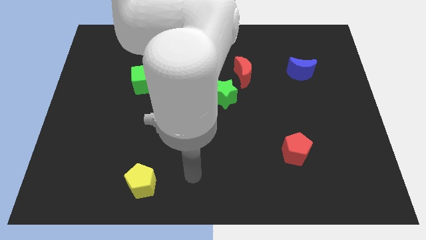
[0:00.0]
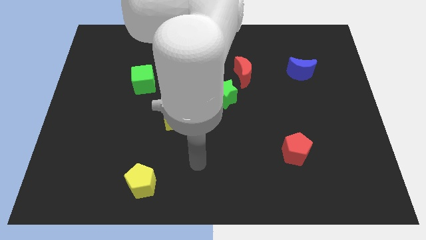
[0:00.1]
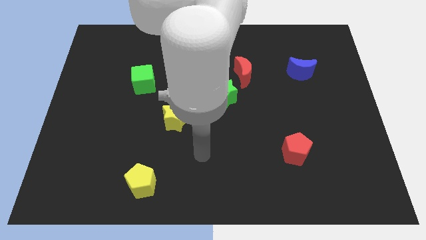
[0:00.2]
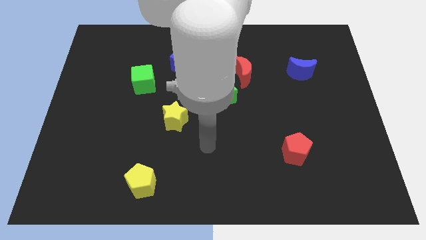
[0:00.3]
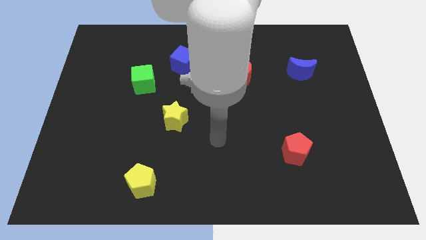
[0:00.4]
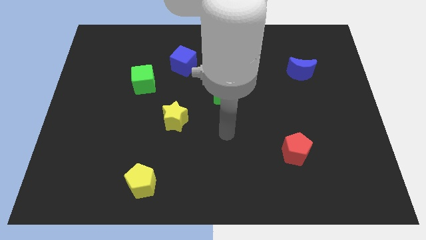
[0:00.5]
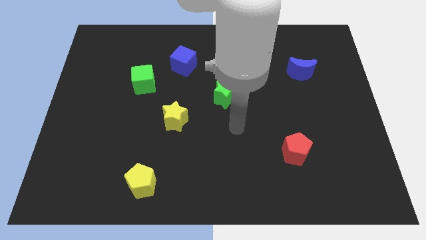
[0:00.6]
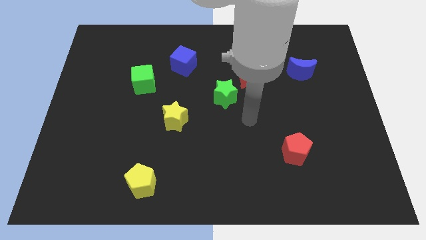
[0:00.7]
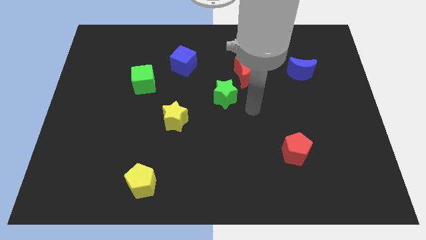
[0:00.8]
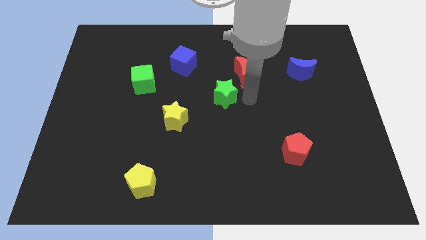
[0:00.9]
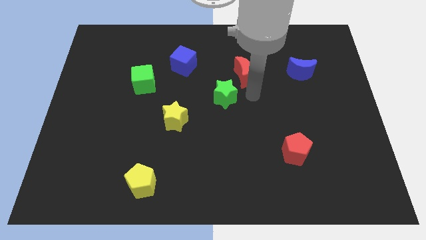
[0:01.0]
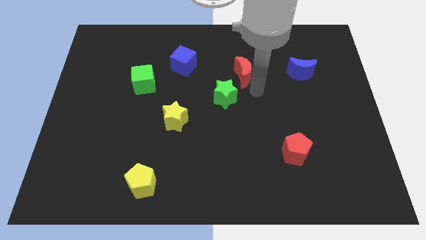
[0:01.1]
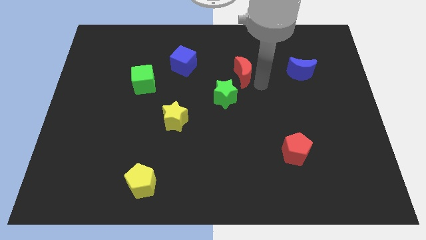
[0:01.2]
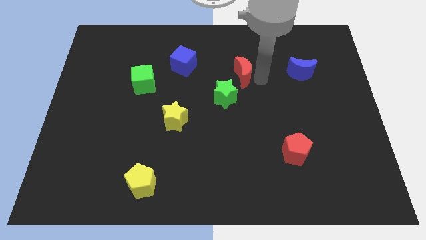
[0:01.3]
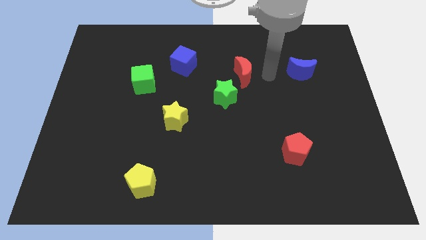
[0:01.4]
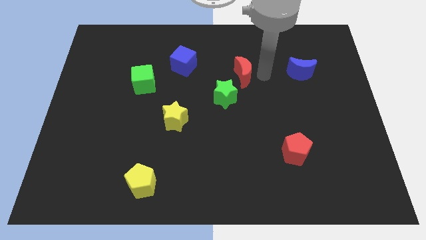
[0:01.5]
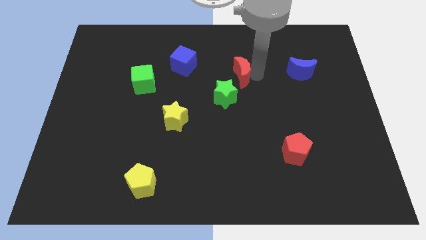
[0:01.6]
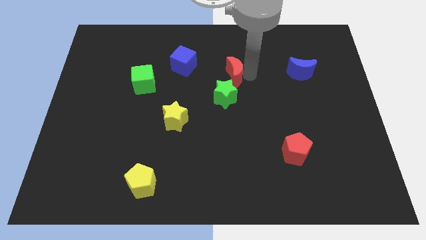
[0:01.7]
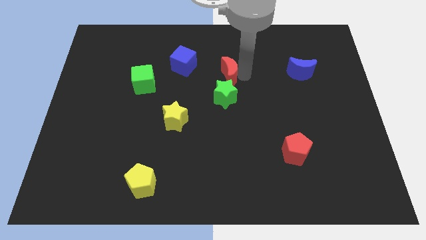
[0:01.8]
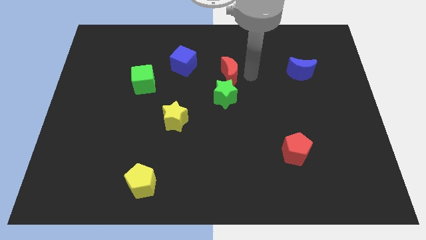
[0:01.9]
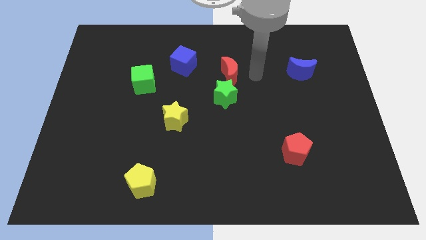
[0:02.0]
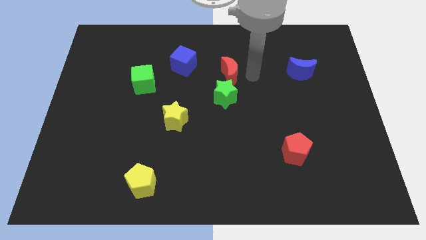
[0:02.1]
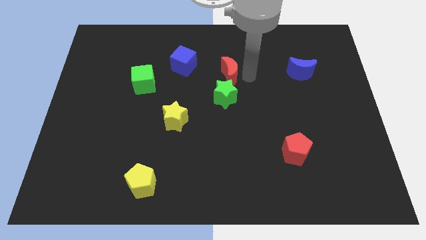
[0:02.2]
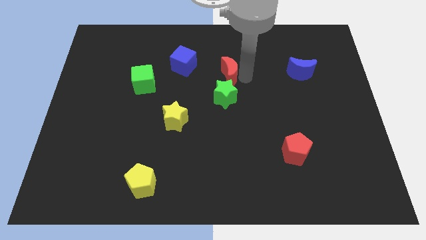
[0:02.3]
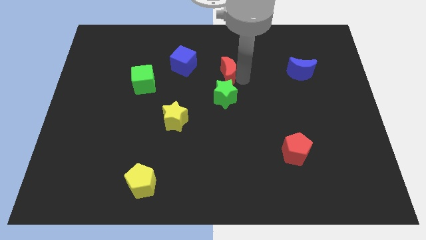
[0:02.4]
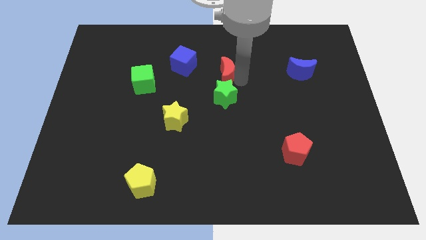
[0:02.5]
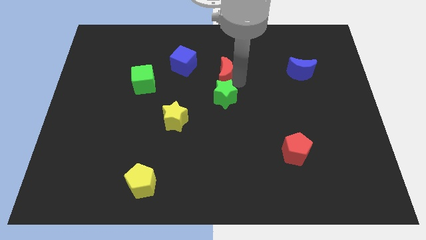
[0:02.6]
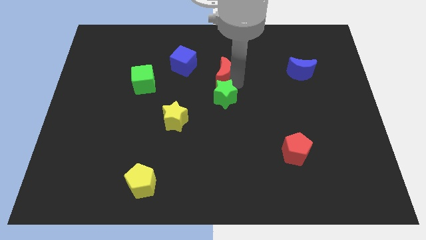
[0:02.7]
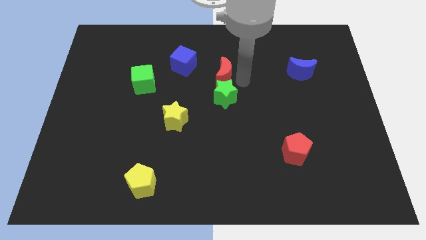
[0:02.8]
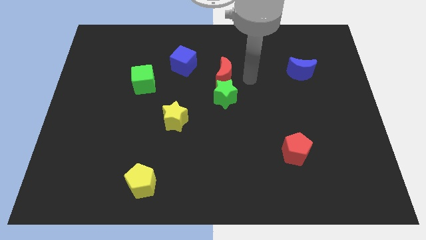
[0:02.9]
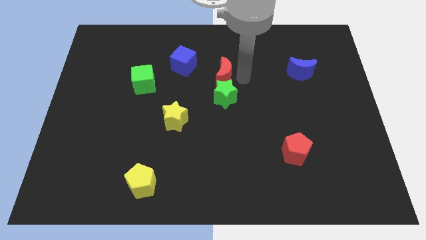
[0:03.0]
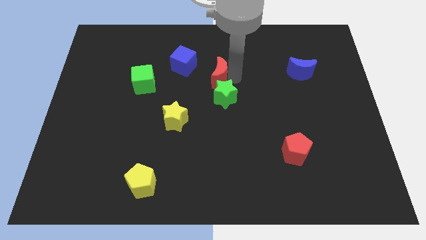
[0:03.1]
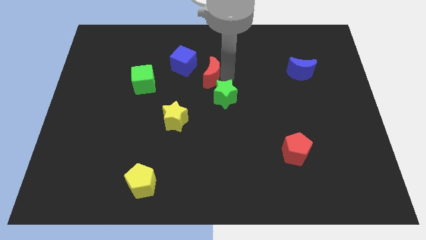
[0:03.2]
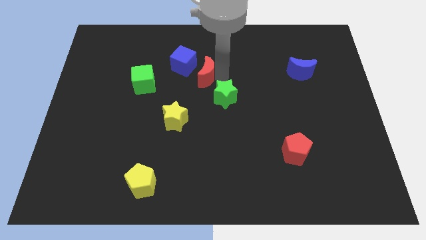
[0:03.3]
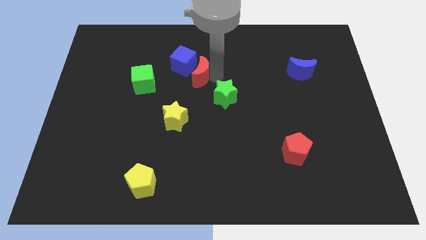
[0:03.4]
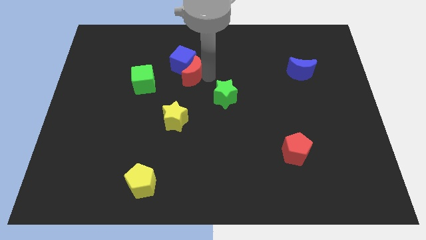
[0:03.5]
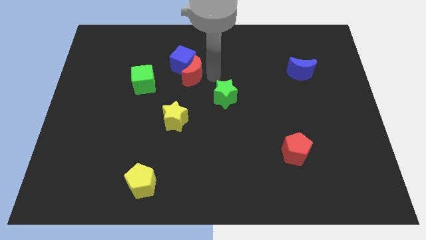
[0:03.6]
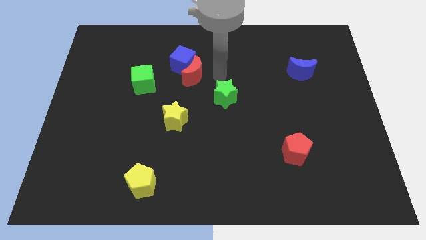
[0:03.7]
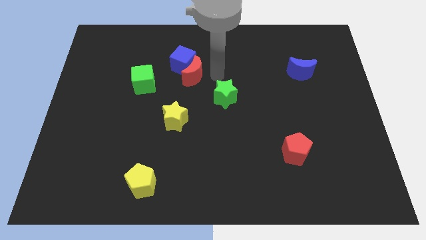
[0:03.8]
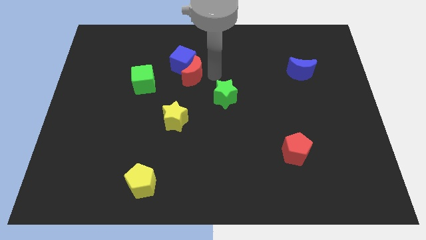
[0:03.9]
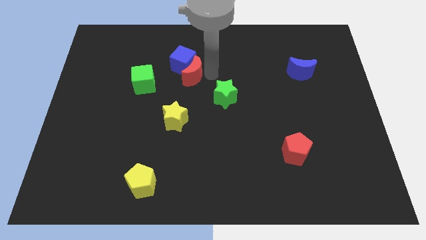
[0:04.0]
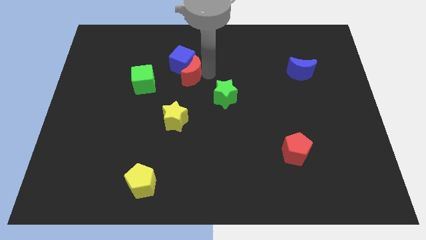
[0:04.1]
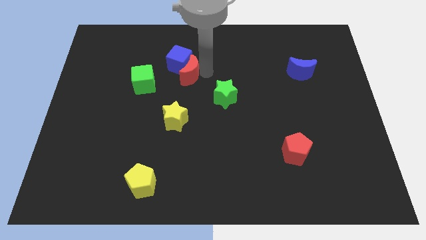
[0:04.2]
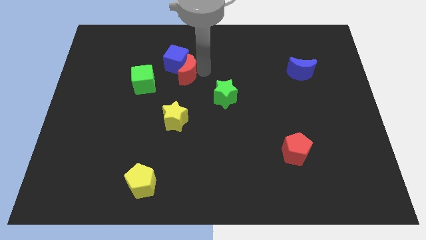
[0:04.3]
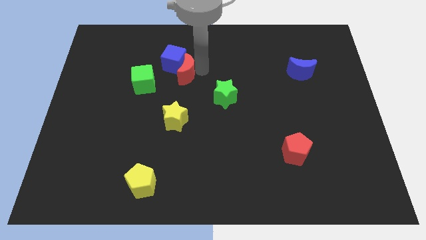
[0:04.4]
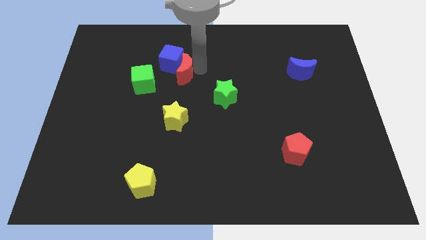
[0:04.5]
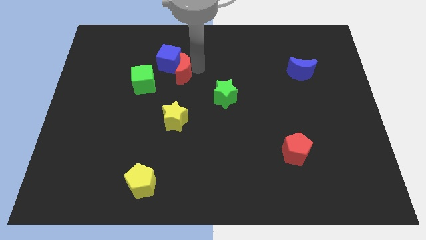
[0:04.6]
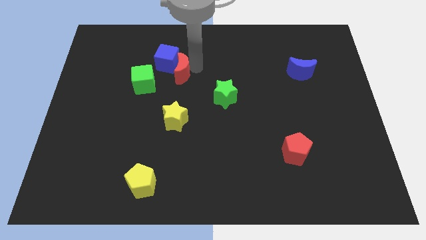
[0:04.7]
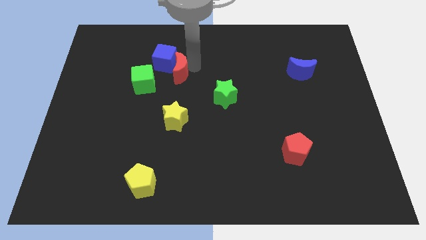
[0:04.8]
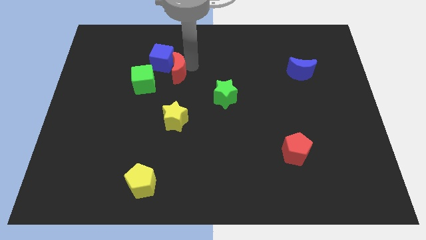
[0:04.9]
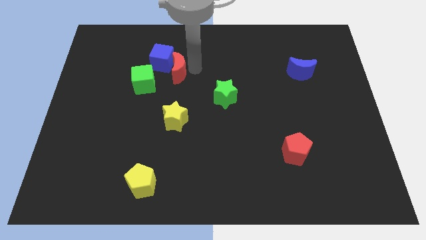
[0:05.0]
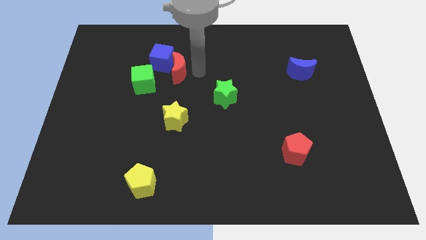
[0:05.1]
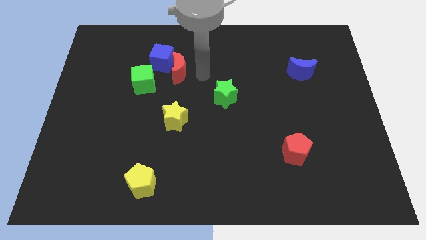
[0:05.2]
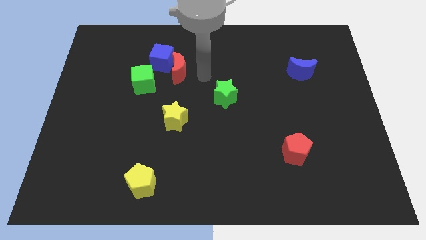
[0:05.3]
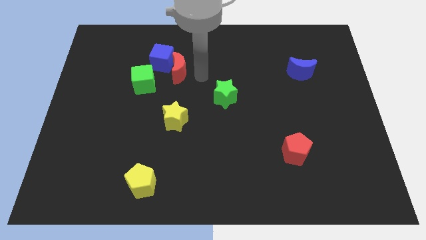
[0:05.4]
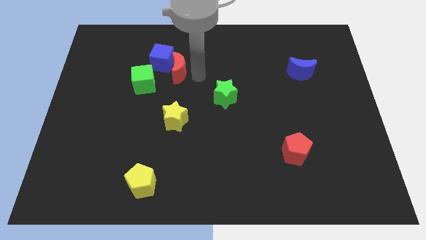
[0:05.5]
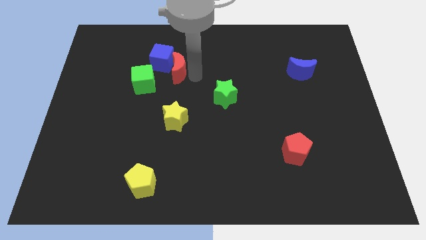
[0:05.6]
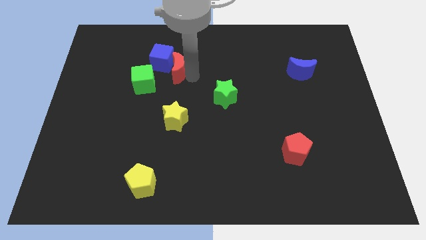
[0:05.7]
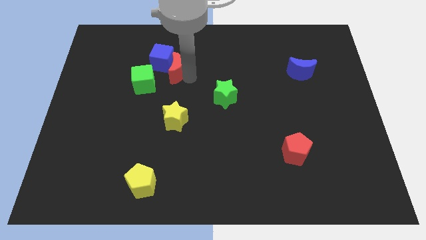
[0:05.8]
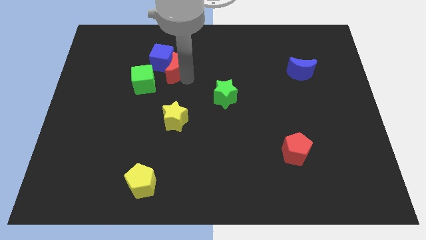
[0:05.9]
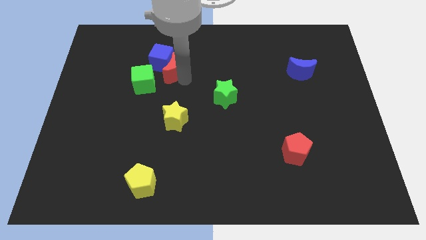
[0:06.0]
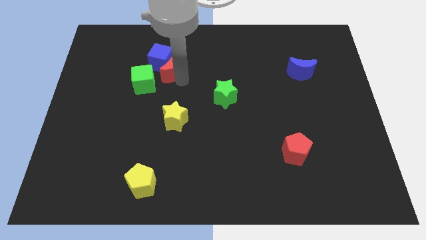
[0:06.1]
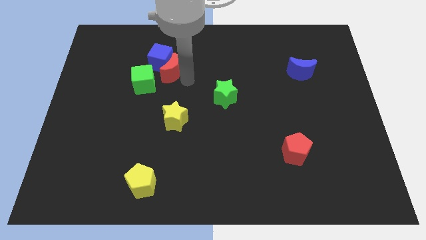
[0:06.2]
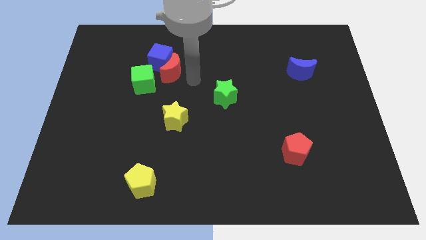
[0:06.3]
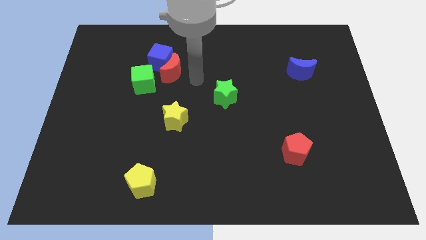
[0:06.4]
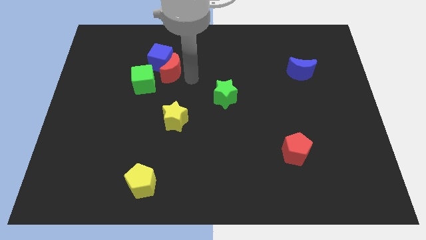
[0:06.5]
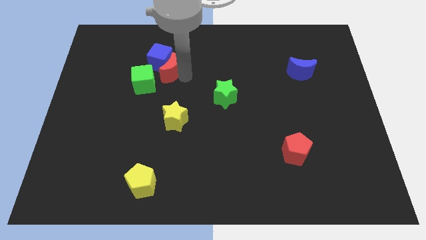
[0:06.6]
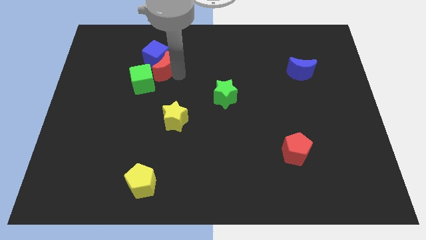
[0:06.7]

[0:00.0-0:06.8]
move the red moon to the left

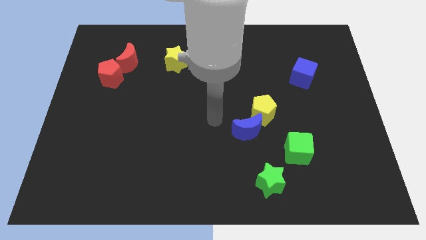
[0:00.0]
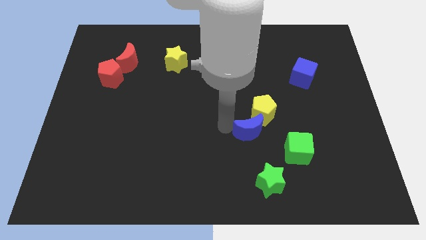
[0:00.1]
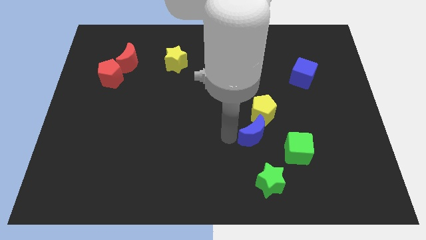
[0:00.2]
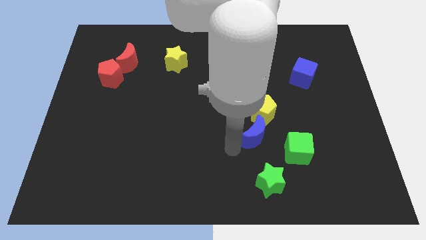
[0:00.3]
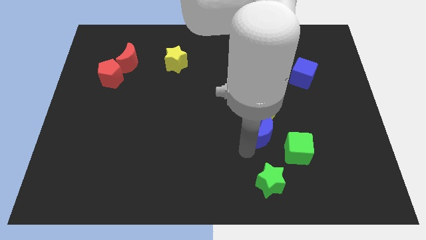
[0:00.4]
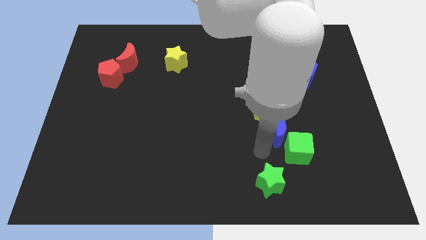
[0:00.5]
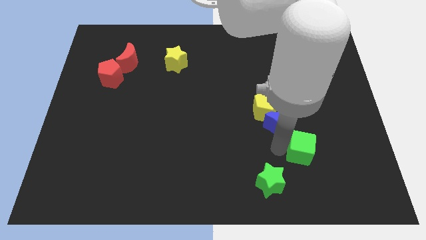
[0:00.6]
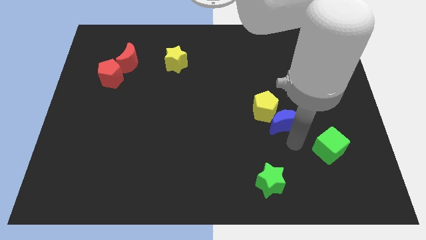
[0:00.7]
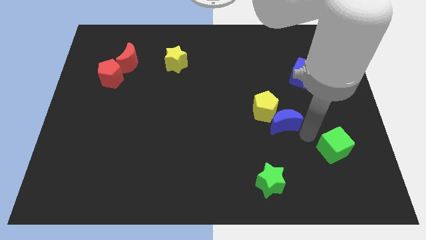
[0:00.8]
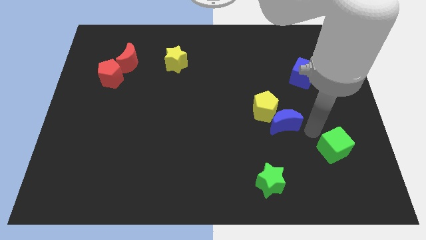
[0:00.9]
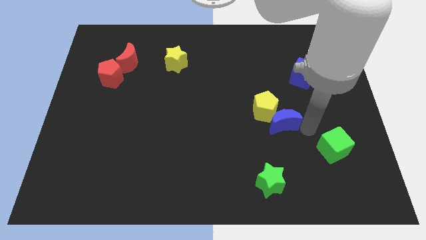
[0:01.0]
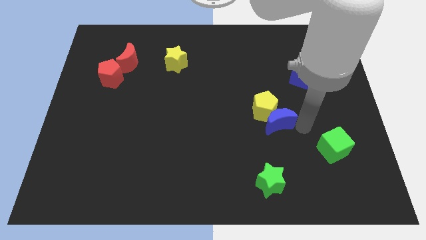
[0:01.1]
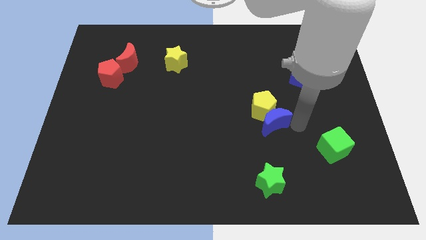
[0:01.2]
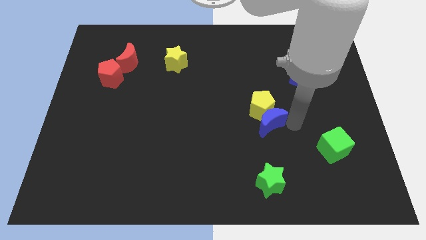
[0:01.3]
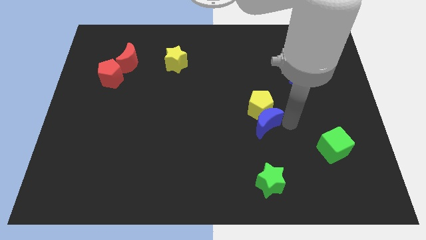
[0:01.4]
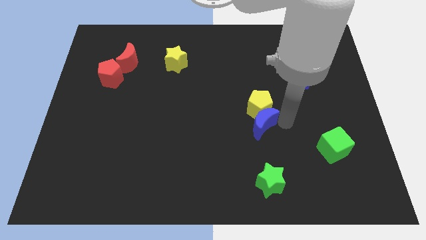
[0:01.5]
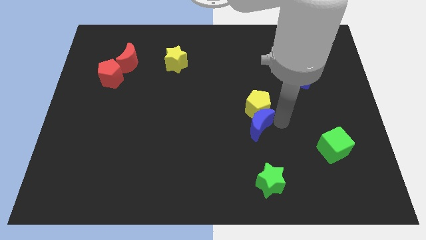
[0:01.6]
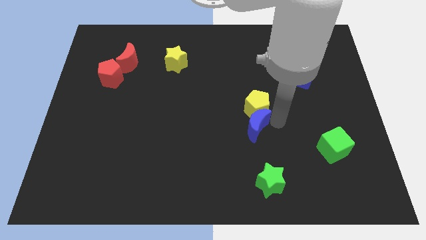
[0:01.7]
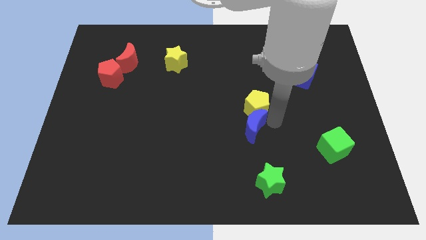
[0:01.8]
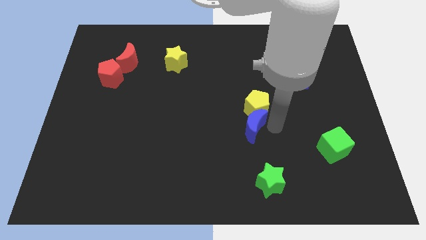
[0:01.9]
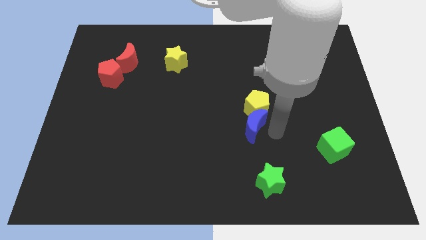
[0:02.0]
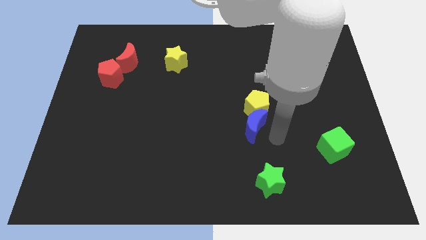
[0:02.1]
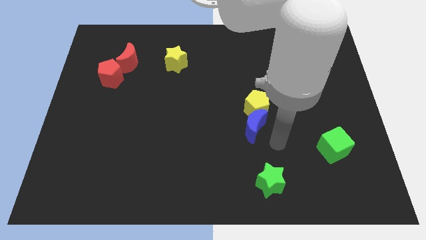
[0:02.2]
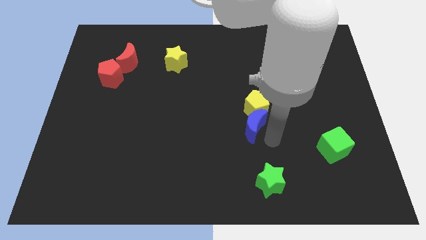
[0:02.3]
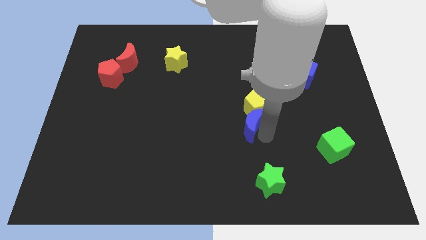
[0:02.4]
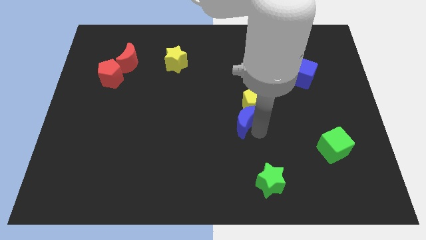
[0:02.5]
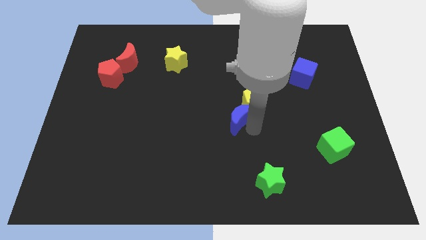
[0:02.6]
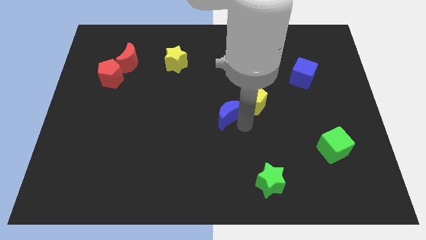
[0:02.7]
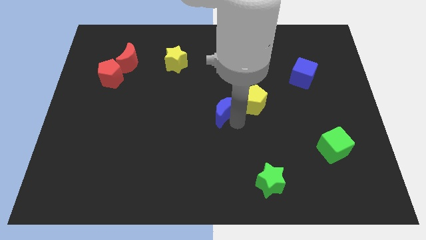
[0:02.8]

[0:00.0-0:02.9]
move the blue moon diagonally up and to the left a bit
